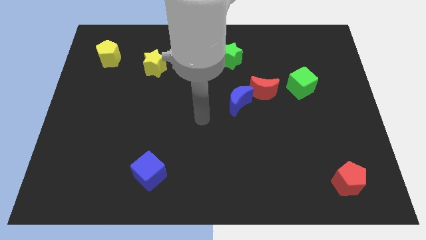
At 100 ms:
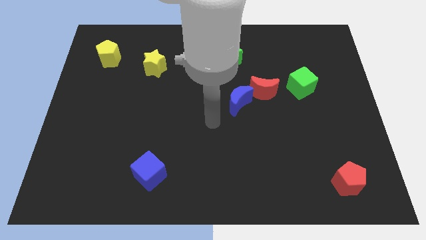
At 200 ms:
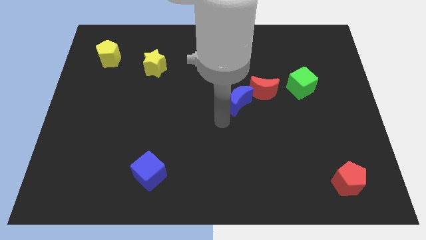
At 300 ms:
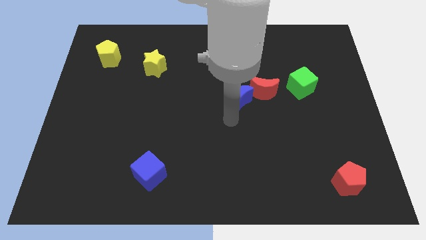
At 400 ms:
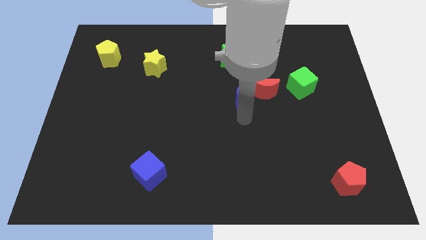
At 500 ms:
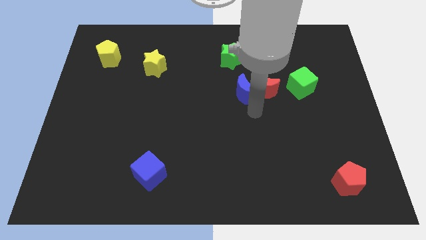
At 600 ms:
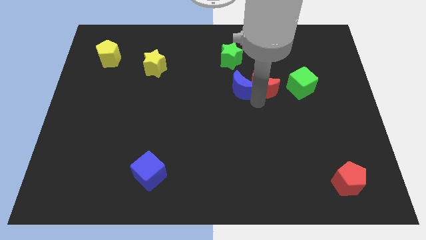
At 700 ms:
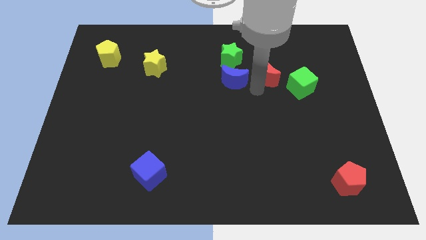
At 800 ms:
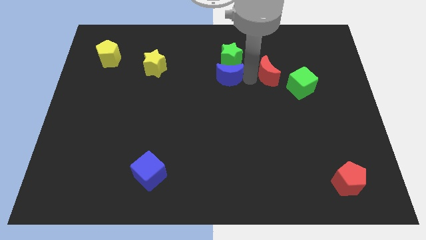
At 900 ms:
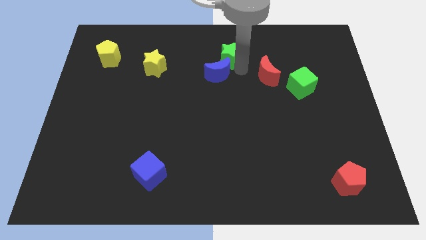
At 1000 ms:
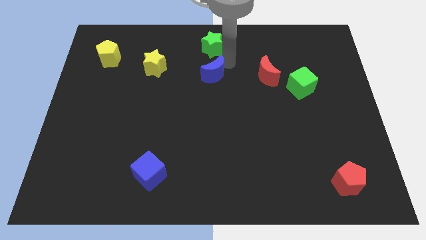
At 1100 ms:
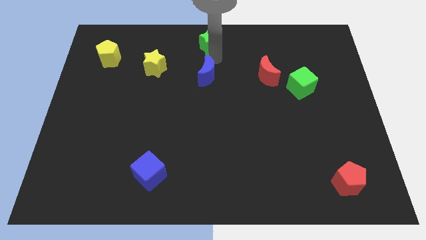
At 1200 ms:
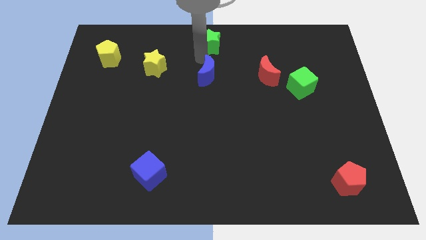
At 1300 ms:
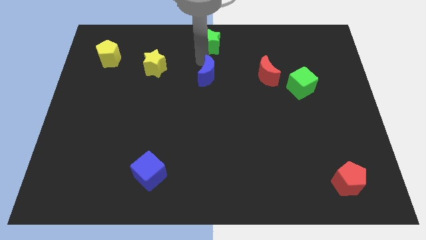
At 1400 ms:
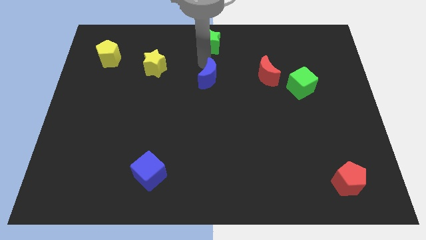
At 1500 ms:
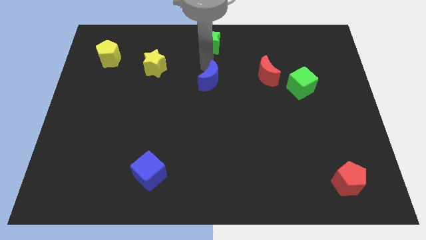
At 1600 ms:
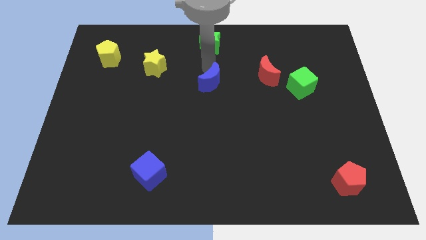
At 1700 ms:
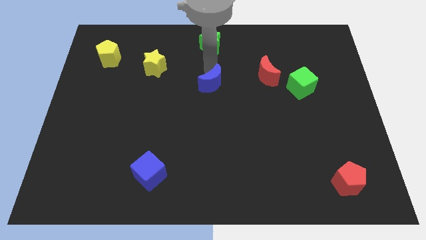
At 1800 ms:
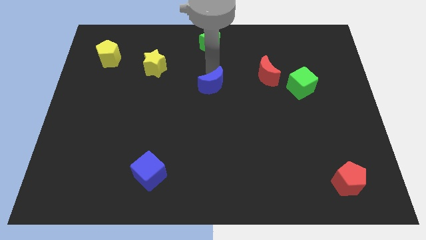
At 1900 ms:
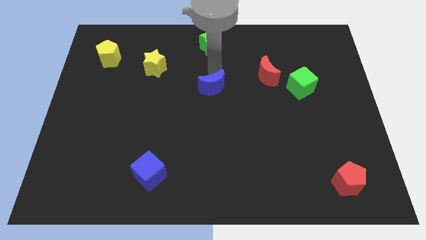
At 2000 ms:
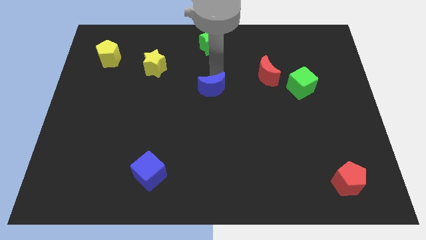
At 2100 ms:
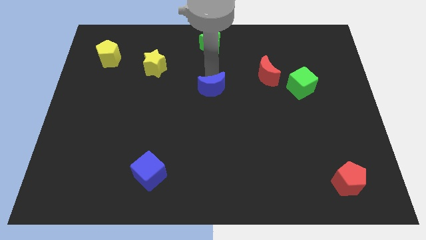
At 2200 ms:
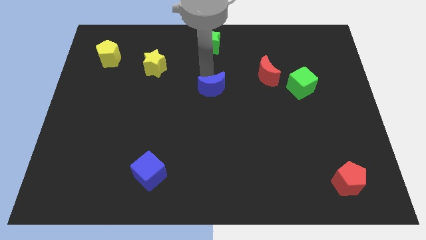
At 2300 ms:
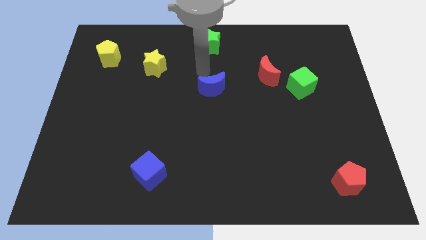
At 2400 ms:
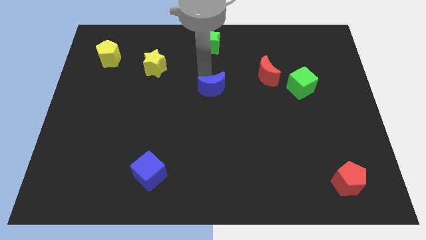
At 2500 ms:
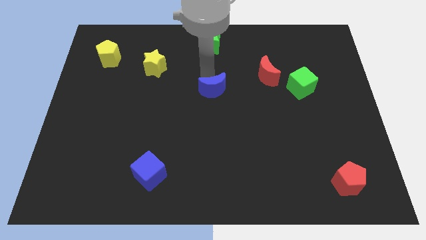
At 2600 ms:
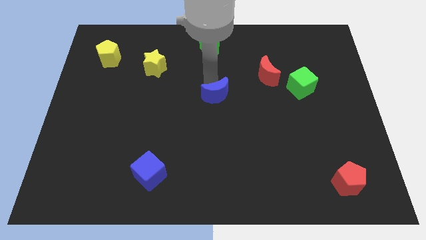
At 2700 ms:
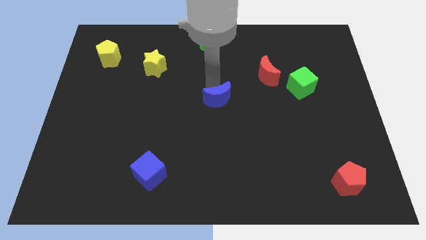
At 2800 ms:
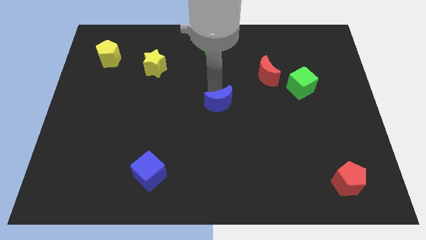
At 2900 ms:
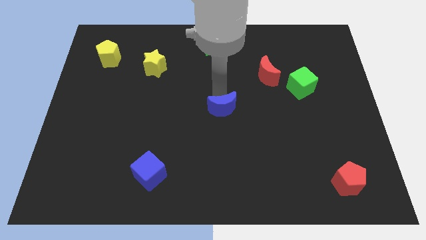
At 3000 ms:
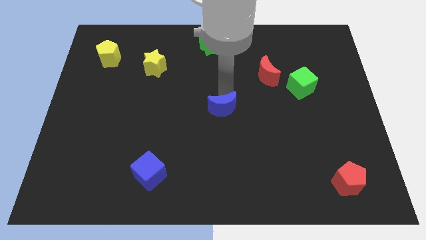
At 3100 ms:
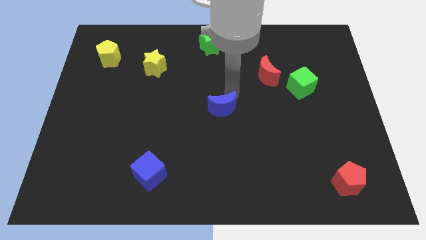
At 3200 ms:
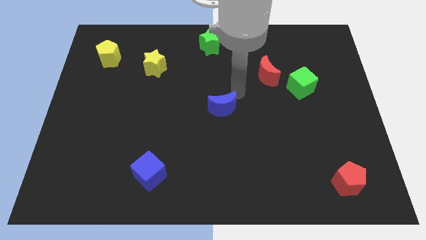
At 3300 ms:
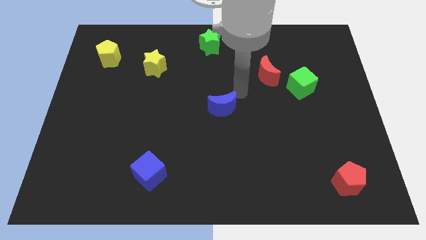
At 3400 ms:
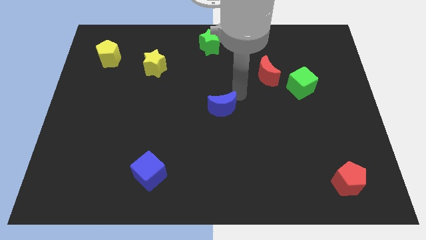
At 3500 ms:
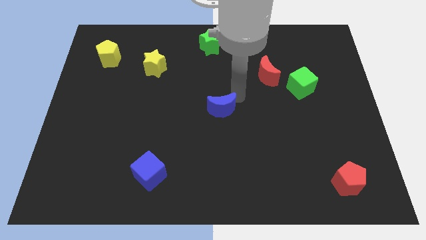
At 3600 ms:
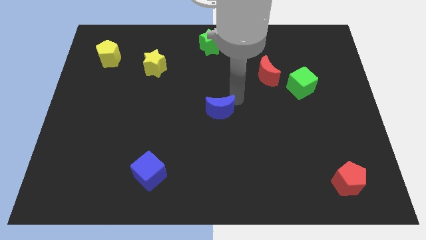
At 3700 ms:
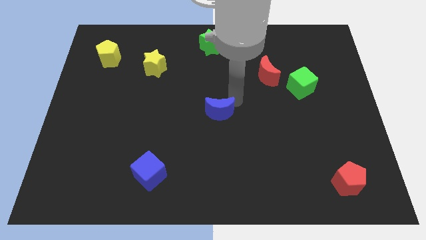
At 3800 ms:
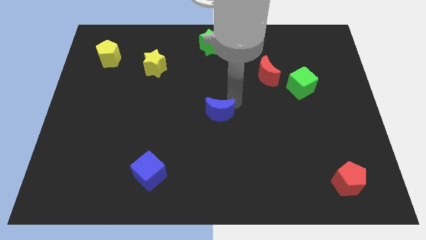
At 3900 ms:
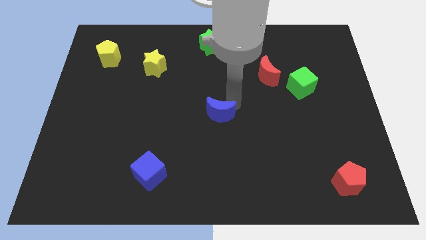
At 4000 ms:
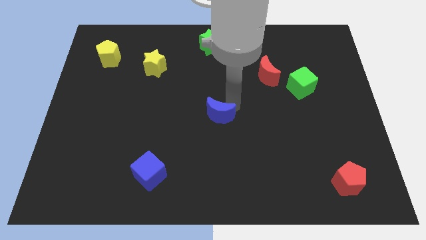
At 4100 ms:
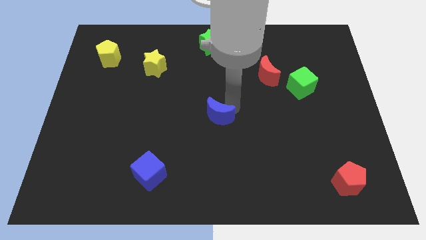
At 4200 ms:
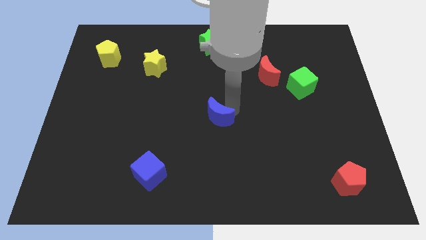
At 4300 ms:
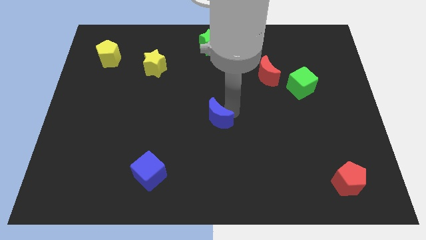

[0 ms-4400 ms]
slide the blue moon down and to the left diagonally slightly

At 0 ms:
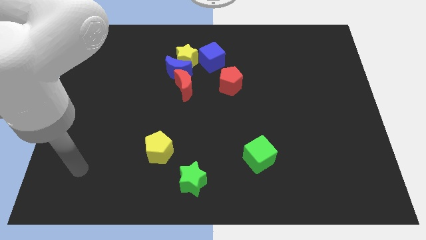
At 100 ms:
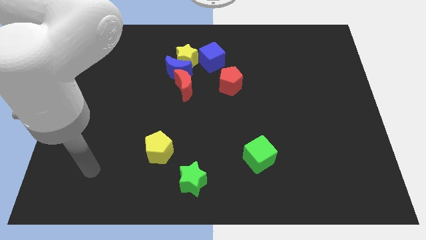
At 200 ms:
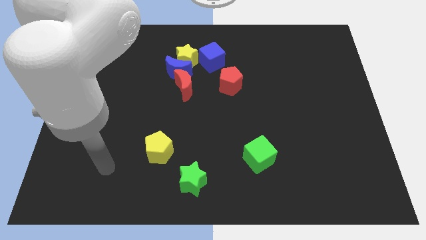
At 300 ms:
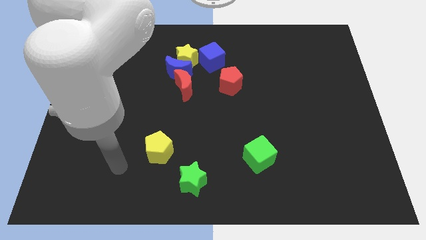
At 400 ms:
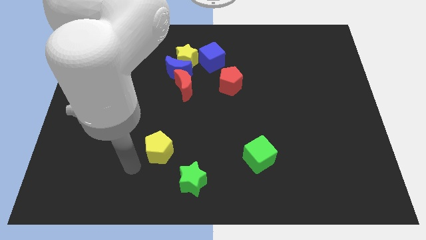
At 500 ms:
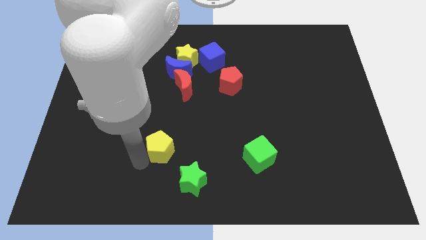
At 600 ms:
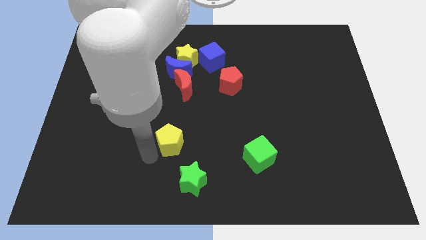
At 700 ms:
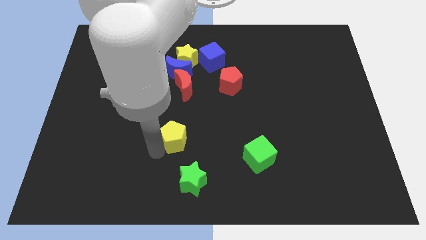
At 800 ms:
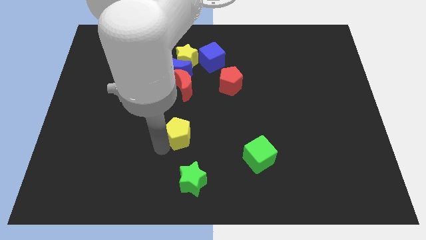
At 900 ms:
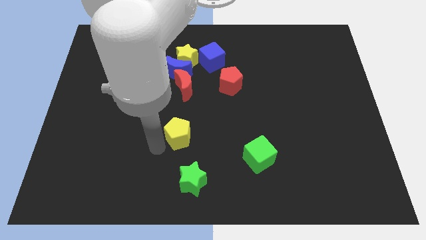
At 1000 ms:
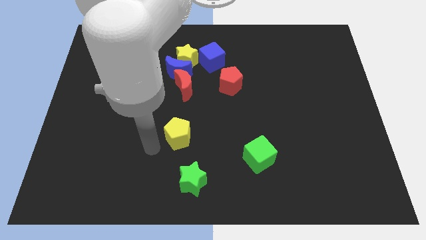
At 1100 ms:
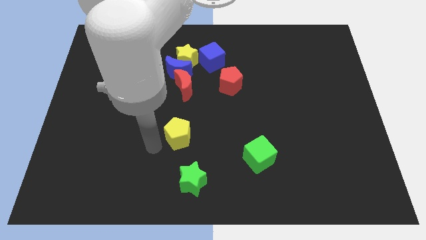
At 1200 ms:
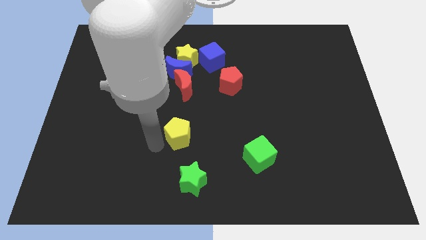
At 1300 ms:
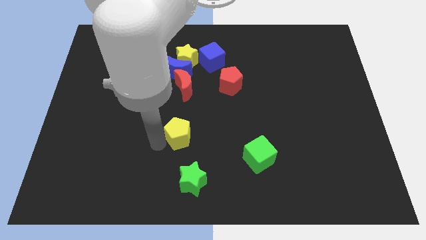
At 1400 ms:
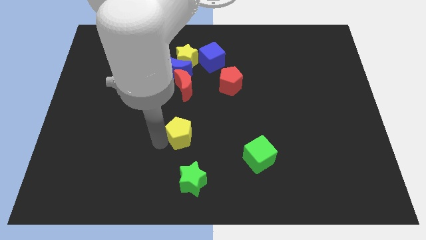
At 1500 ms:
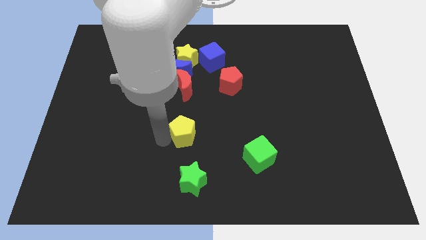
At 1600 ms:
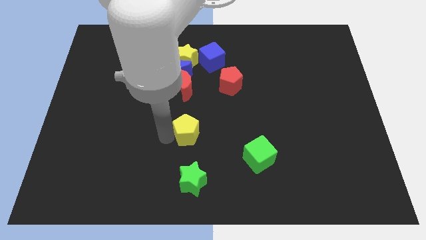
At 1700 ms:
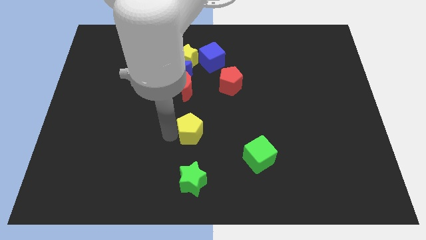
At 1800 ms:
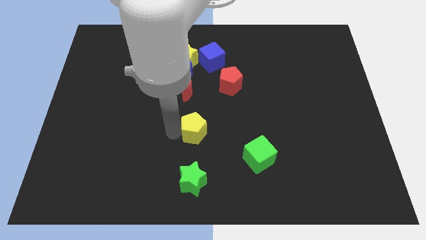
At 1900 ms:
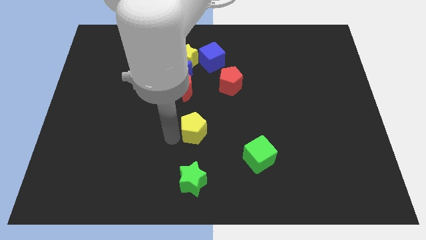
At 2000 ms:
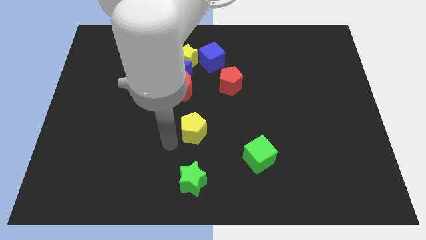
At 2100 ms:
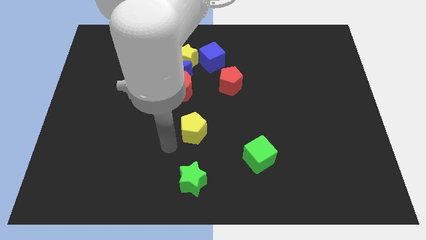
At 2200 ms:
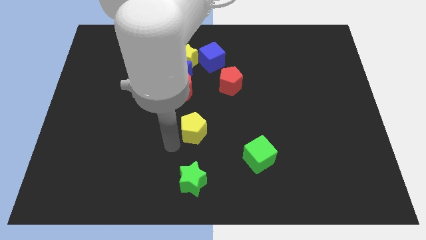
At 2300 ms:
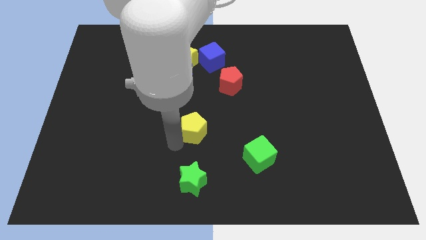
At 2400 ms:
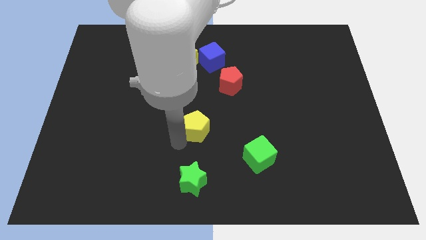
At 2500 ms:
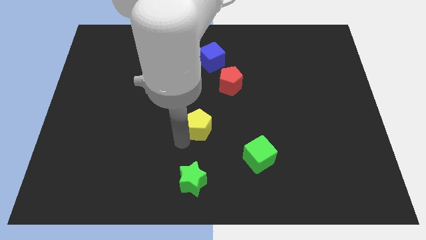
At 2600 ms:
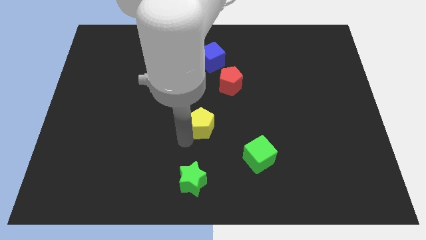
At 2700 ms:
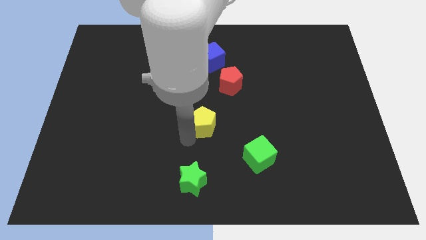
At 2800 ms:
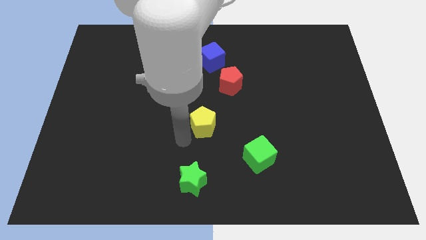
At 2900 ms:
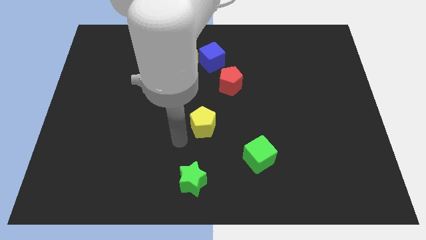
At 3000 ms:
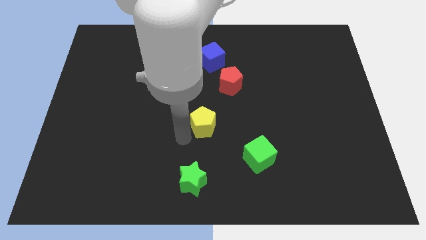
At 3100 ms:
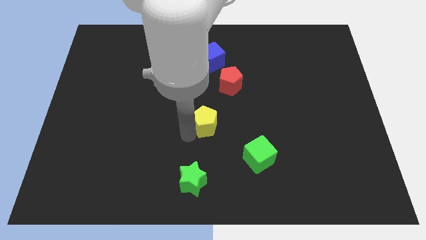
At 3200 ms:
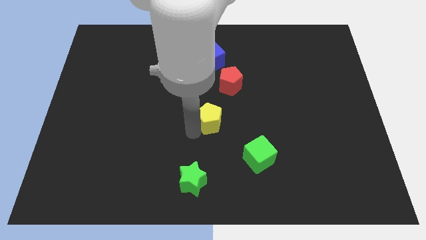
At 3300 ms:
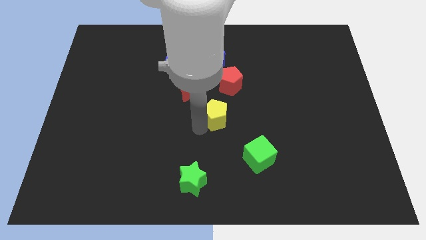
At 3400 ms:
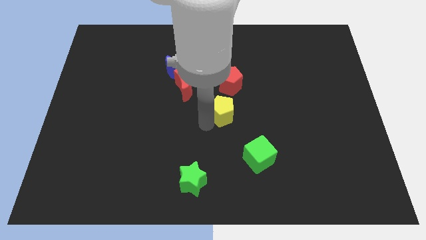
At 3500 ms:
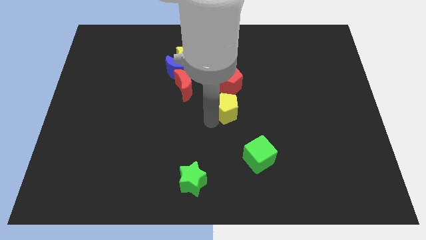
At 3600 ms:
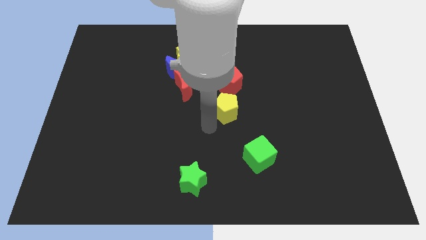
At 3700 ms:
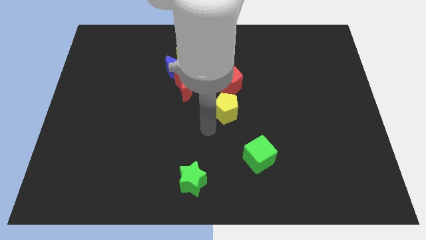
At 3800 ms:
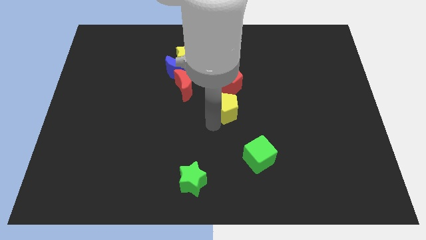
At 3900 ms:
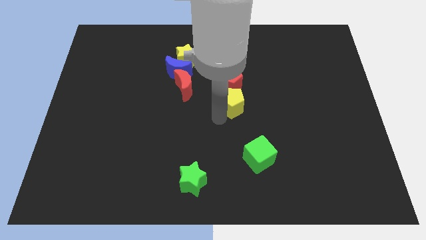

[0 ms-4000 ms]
move the yellow pentagon up and to the right
